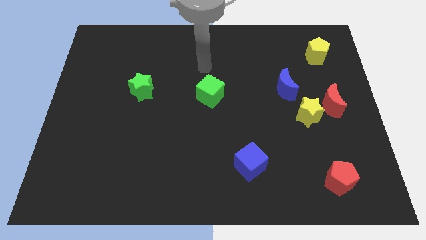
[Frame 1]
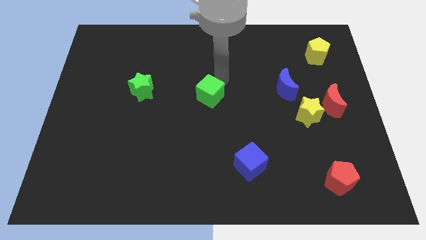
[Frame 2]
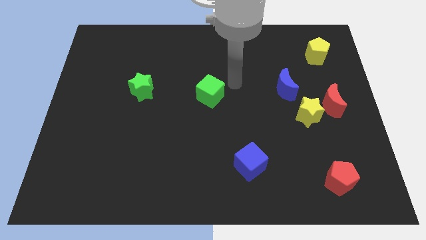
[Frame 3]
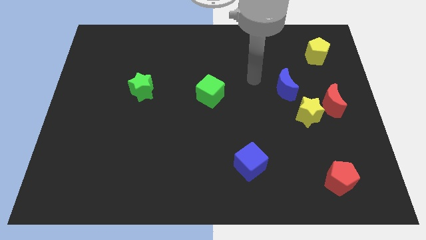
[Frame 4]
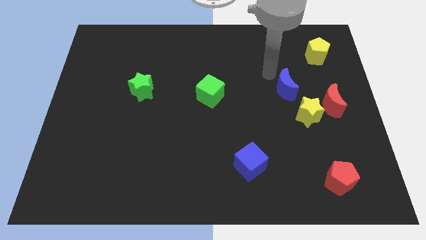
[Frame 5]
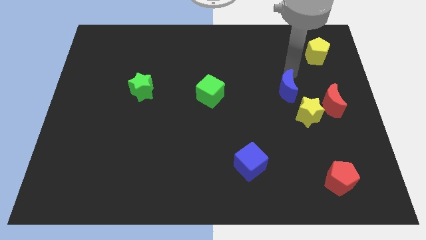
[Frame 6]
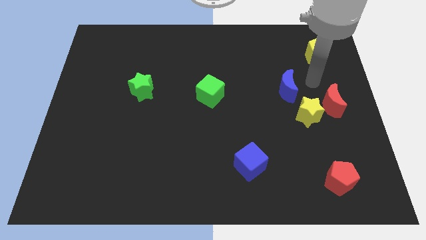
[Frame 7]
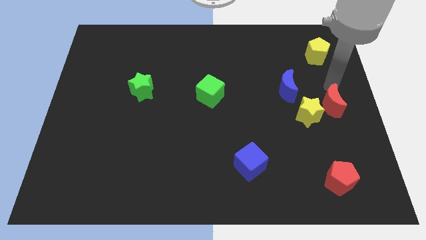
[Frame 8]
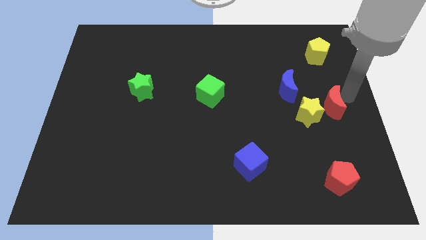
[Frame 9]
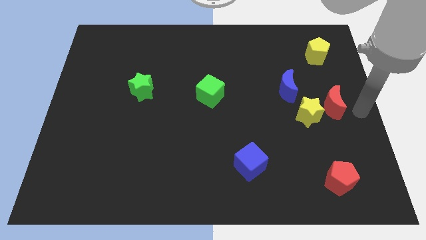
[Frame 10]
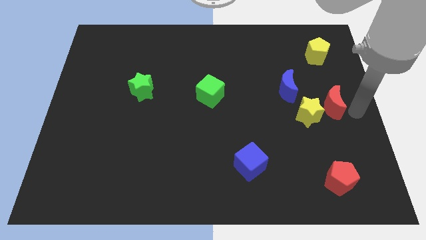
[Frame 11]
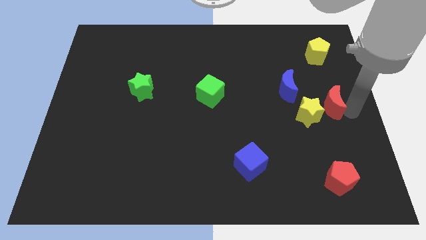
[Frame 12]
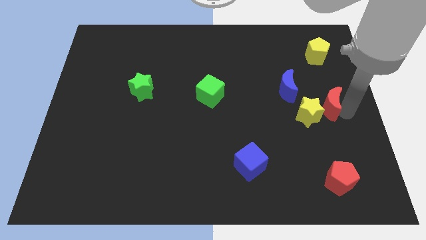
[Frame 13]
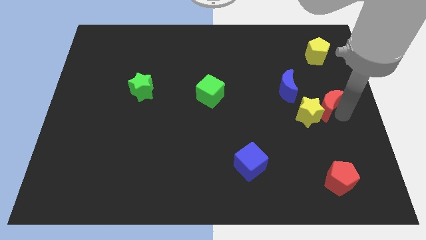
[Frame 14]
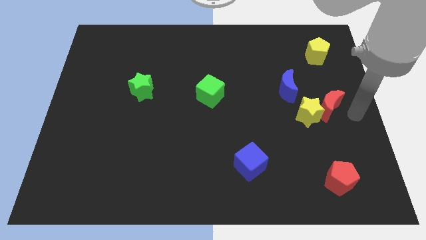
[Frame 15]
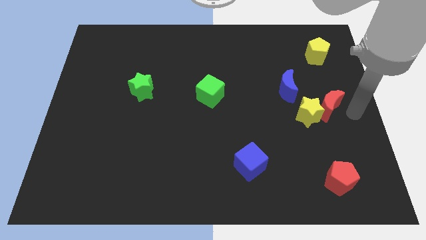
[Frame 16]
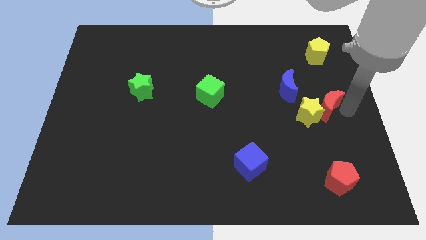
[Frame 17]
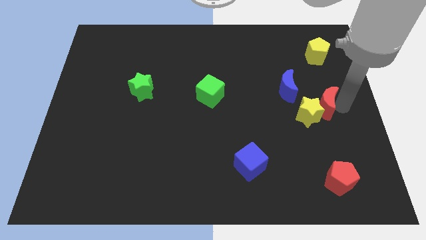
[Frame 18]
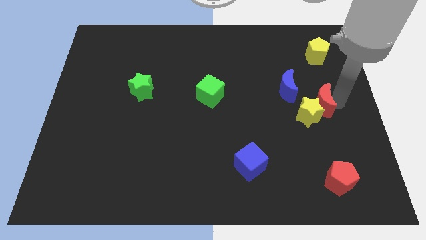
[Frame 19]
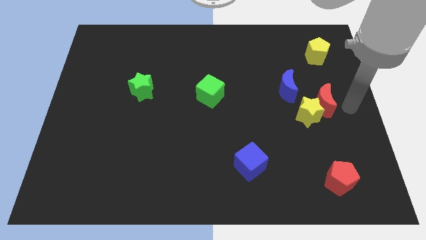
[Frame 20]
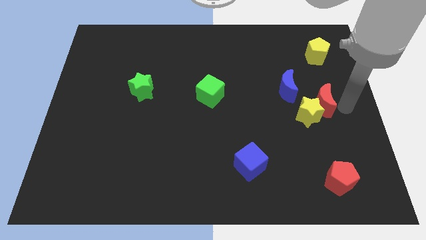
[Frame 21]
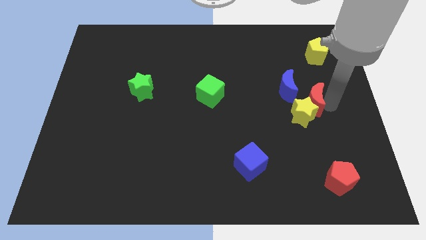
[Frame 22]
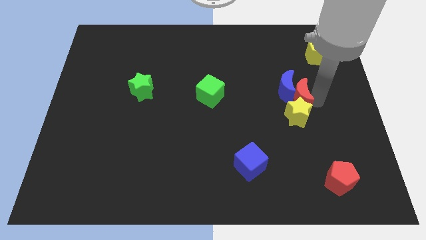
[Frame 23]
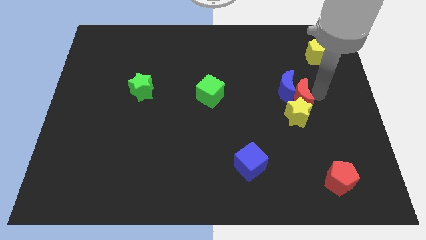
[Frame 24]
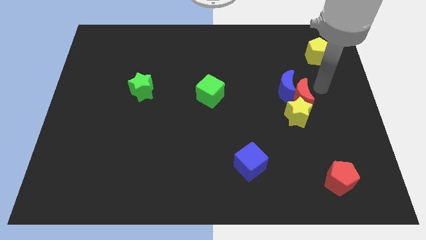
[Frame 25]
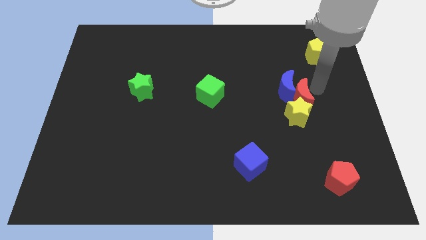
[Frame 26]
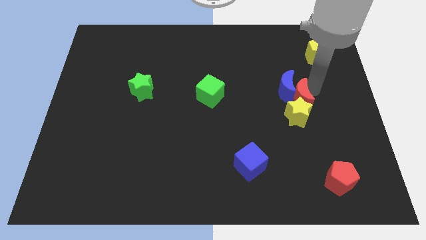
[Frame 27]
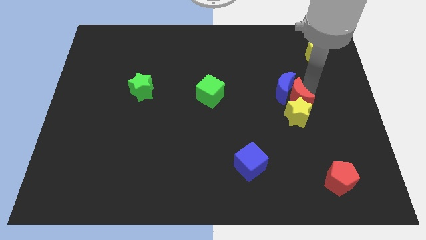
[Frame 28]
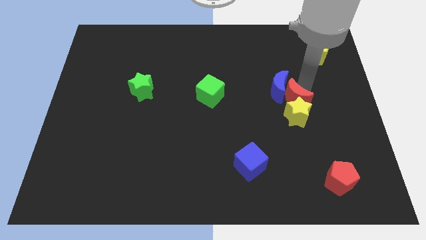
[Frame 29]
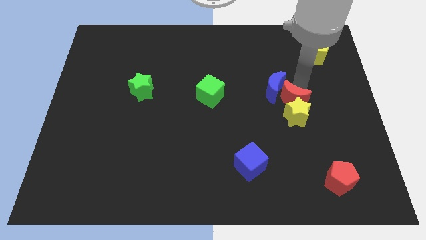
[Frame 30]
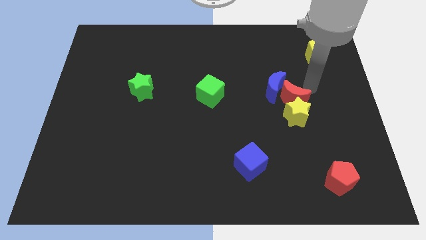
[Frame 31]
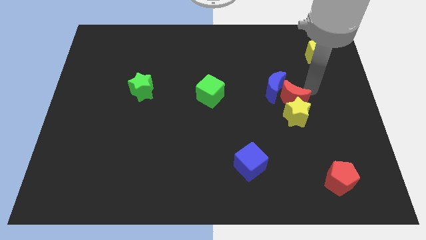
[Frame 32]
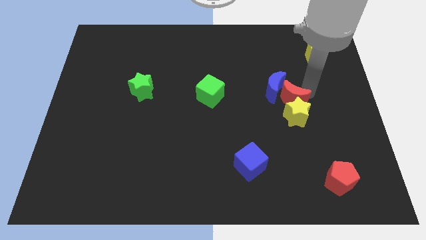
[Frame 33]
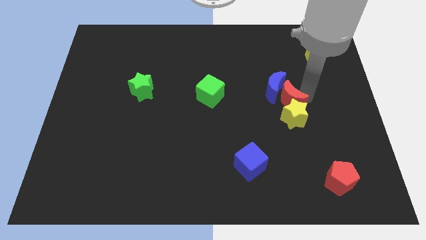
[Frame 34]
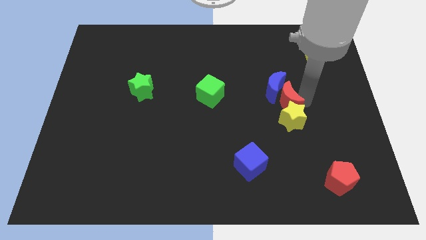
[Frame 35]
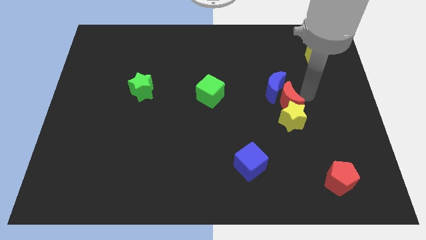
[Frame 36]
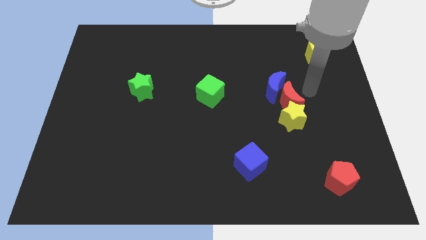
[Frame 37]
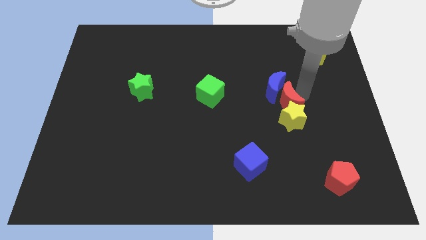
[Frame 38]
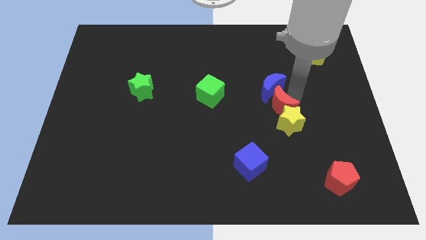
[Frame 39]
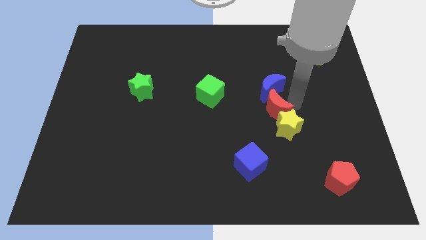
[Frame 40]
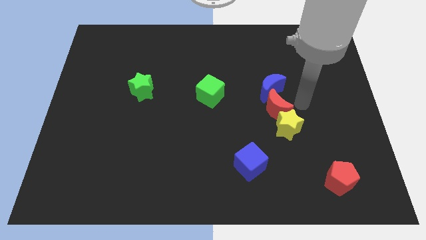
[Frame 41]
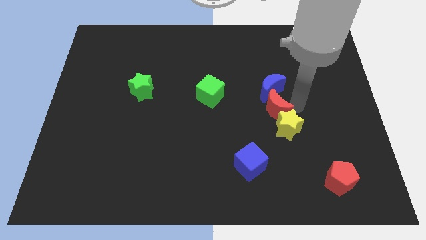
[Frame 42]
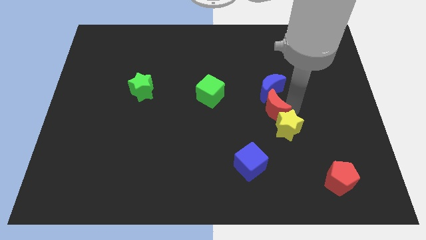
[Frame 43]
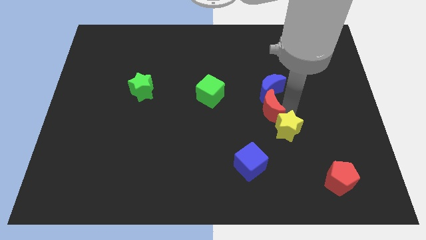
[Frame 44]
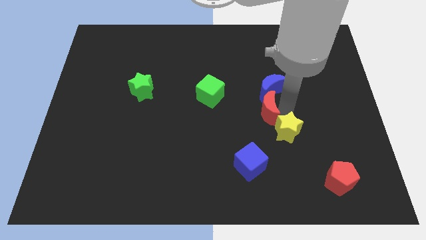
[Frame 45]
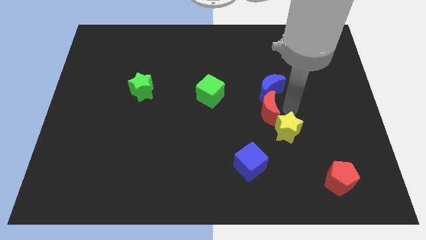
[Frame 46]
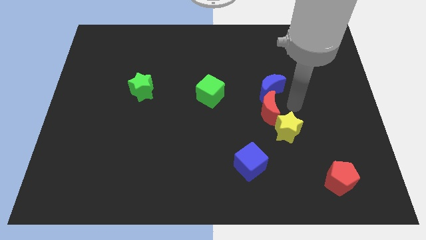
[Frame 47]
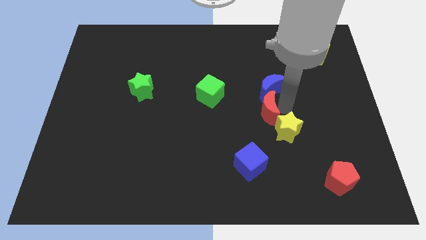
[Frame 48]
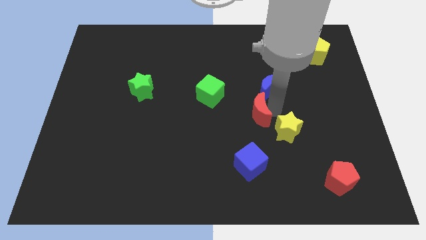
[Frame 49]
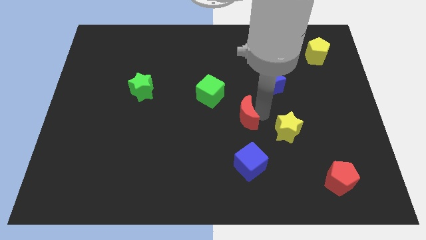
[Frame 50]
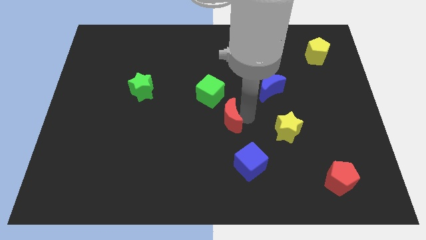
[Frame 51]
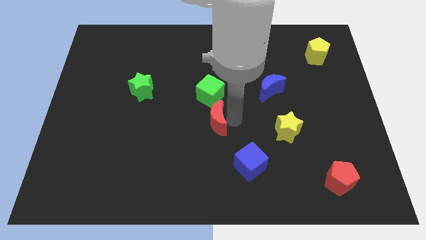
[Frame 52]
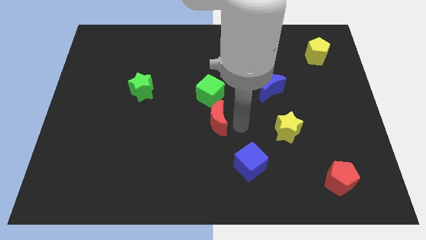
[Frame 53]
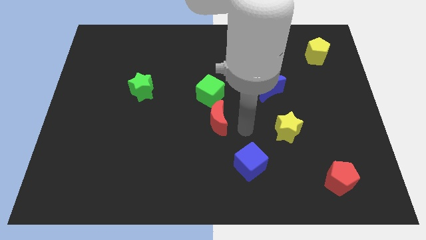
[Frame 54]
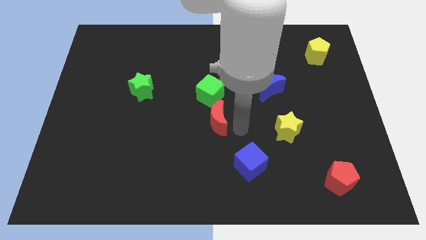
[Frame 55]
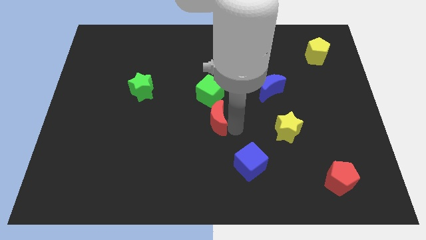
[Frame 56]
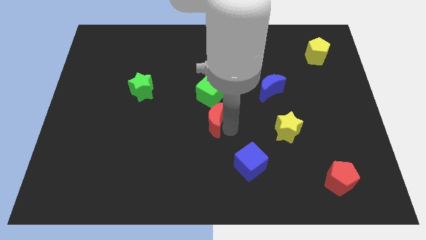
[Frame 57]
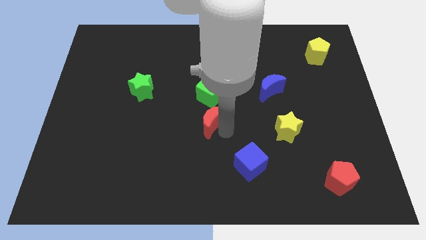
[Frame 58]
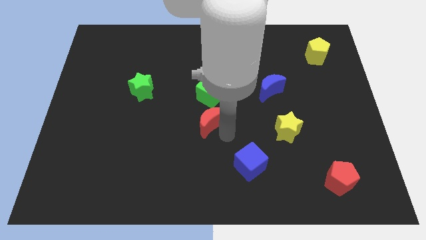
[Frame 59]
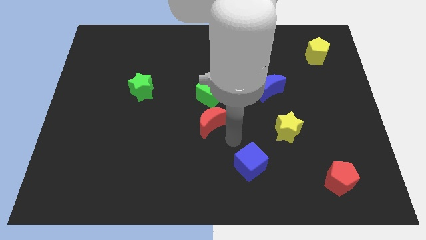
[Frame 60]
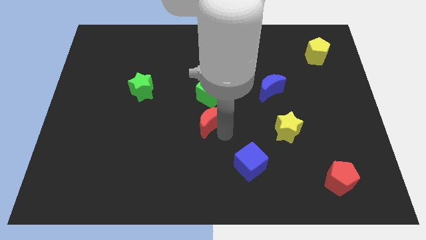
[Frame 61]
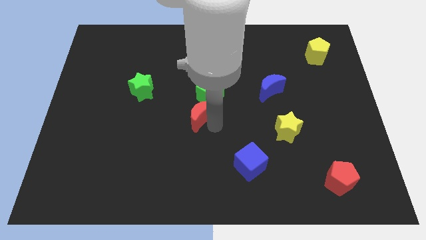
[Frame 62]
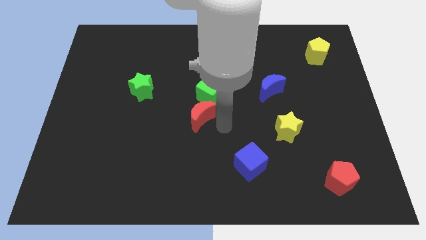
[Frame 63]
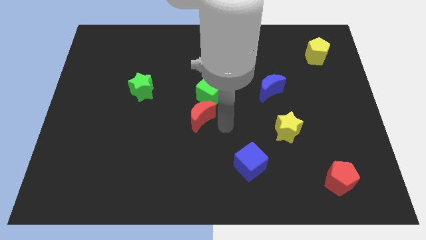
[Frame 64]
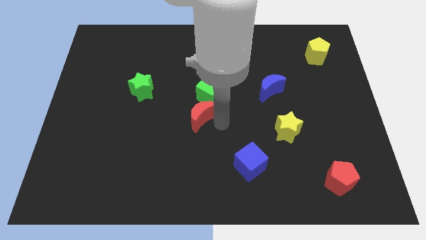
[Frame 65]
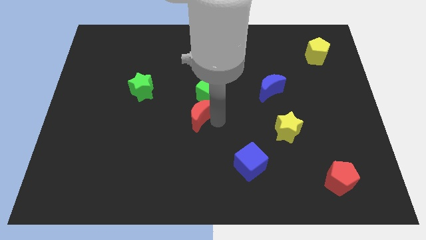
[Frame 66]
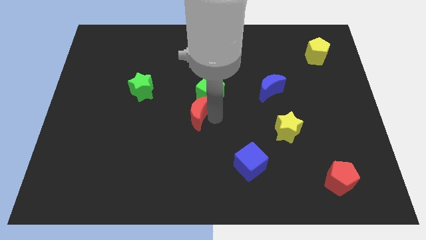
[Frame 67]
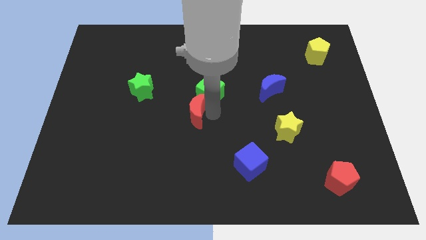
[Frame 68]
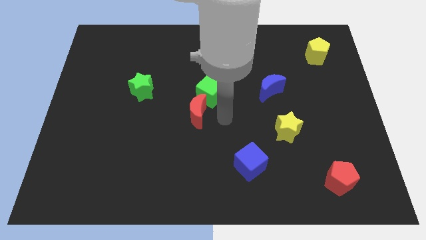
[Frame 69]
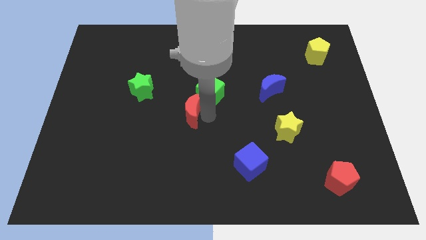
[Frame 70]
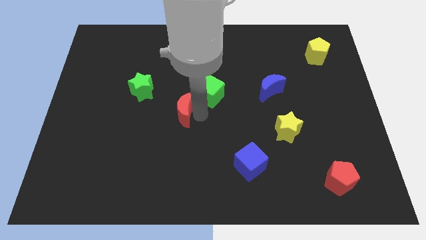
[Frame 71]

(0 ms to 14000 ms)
push the red moon to the bottom right side of the green star
